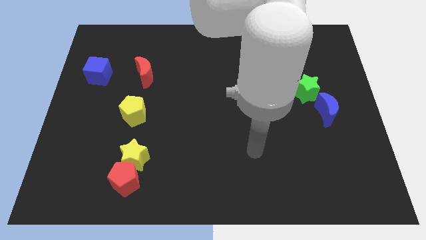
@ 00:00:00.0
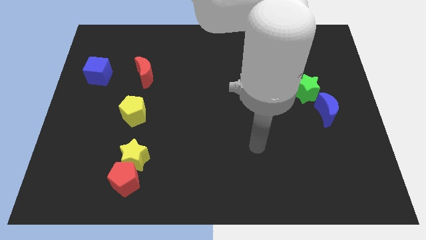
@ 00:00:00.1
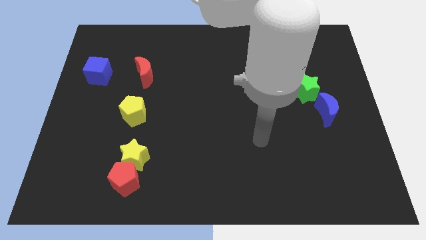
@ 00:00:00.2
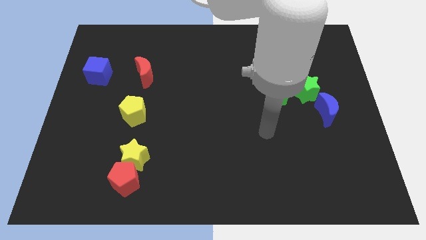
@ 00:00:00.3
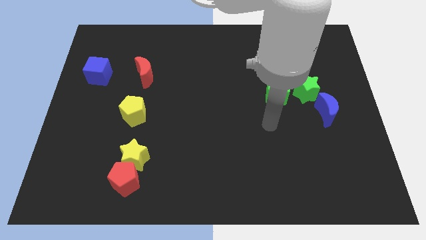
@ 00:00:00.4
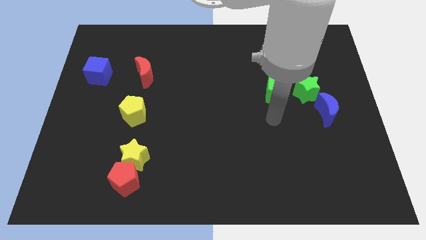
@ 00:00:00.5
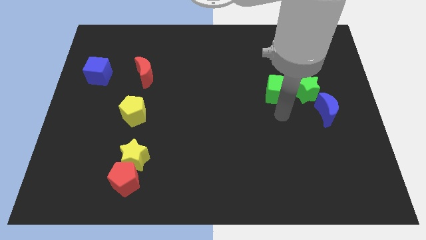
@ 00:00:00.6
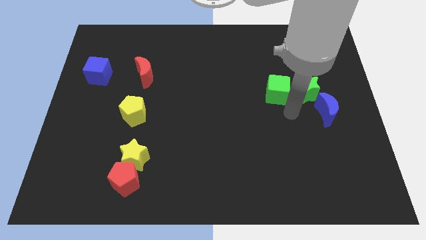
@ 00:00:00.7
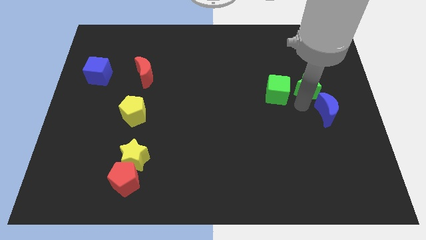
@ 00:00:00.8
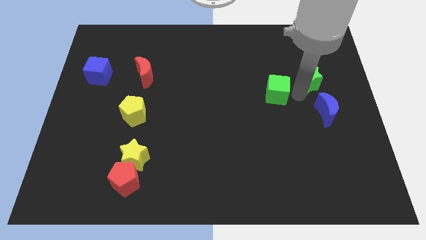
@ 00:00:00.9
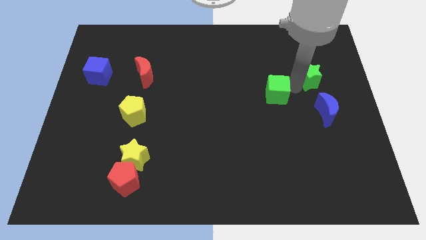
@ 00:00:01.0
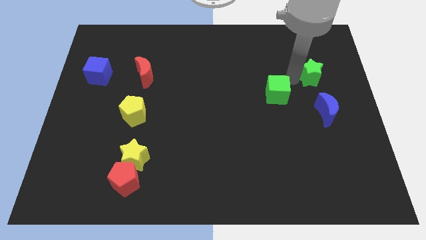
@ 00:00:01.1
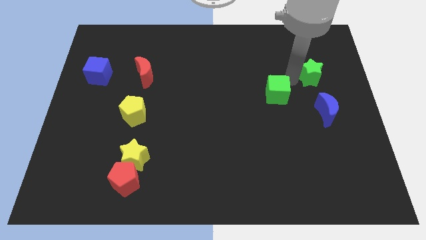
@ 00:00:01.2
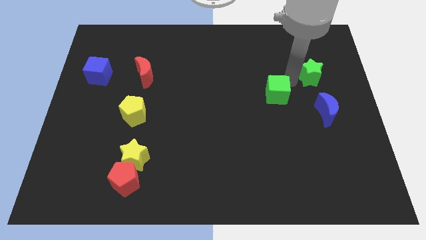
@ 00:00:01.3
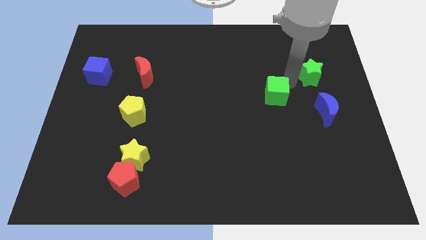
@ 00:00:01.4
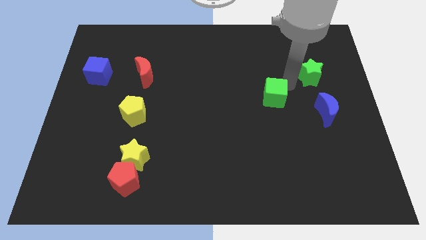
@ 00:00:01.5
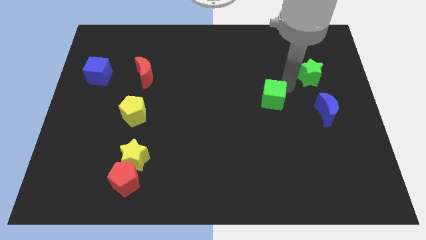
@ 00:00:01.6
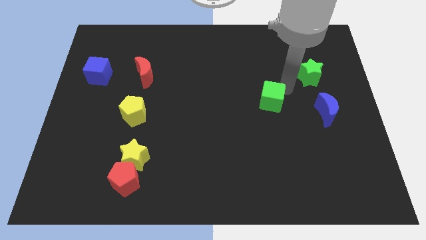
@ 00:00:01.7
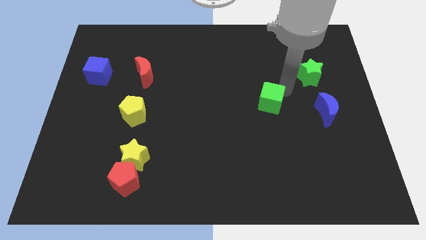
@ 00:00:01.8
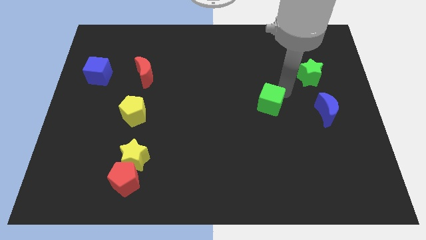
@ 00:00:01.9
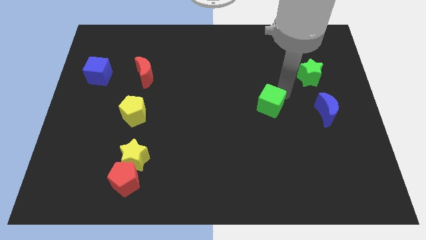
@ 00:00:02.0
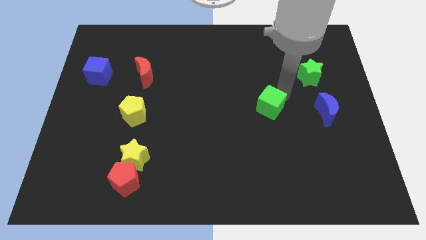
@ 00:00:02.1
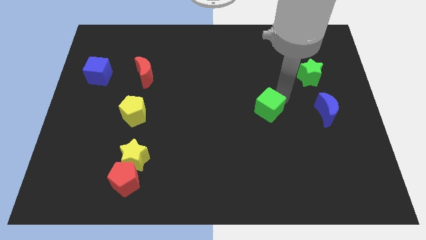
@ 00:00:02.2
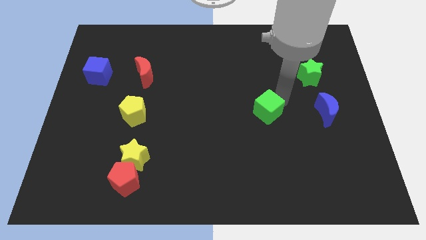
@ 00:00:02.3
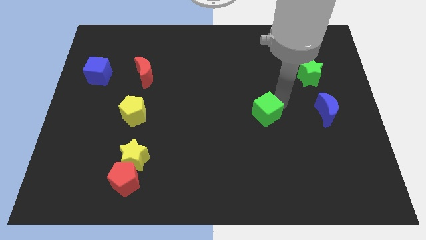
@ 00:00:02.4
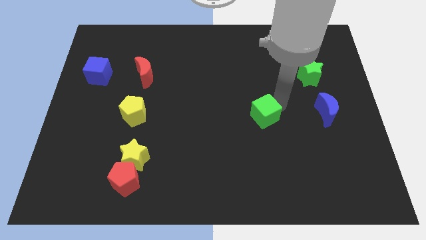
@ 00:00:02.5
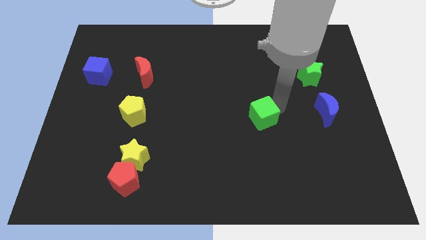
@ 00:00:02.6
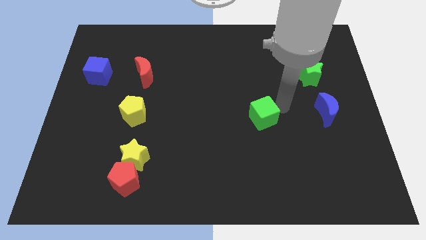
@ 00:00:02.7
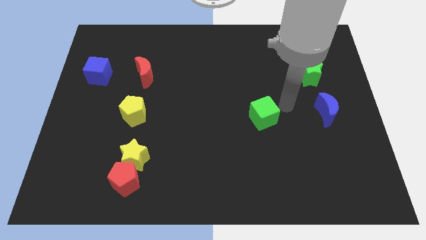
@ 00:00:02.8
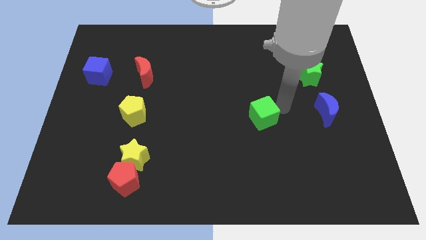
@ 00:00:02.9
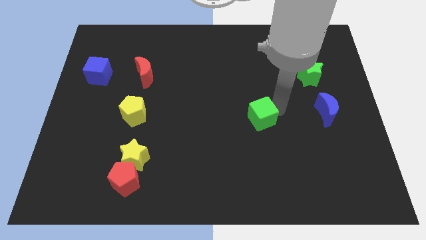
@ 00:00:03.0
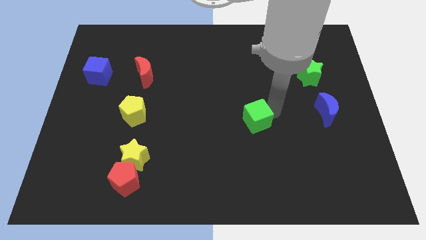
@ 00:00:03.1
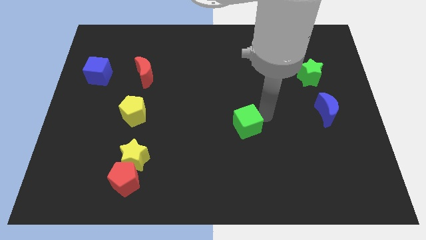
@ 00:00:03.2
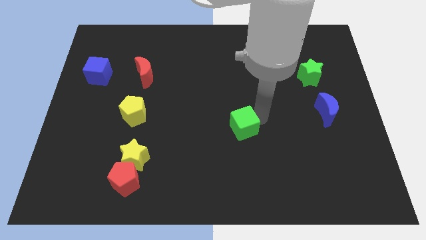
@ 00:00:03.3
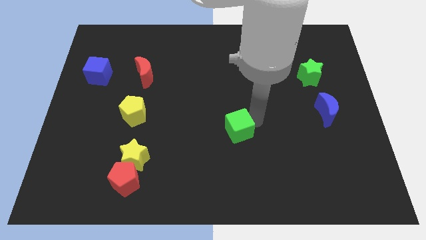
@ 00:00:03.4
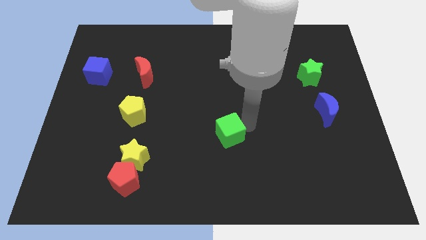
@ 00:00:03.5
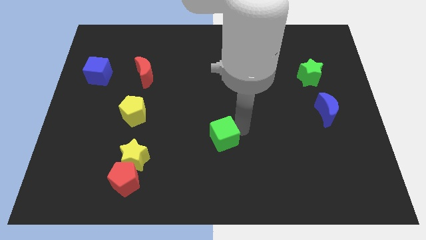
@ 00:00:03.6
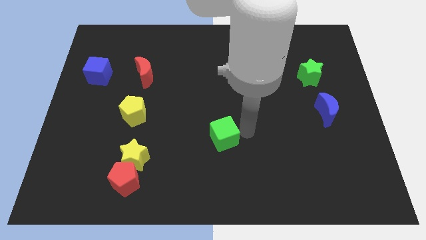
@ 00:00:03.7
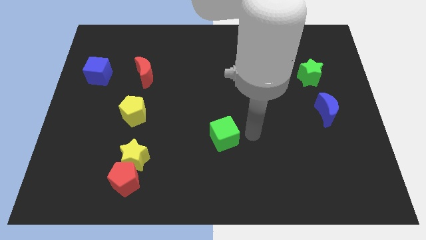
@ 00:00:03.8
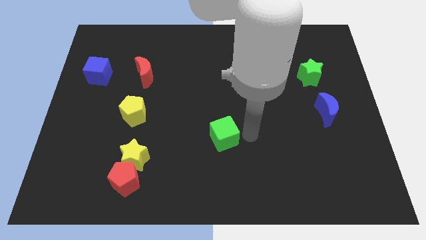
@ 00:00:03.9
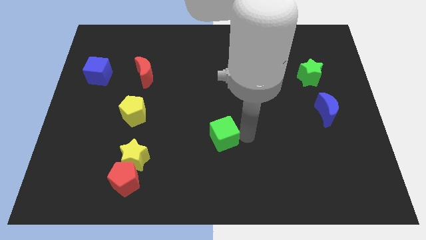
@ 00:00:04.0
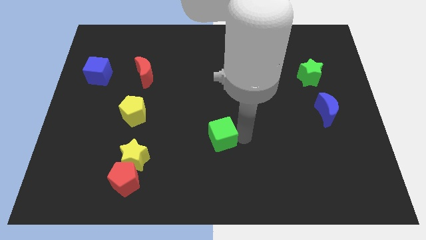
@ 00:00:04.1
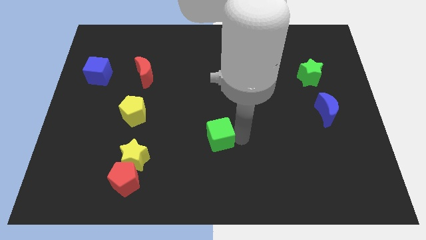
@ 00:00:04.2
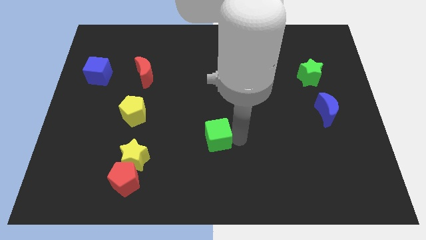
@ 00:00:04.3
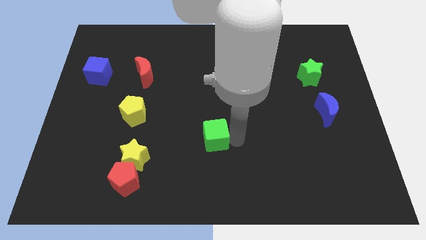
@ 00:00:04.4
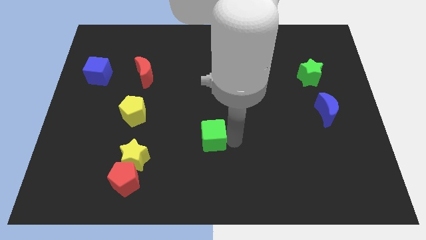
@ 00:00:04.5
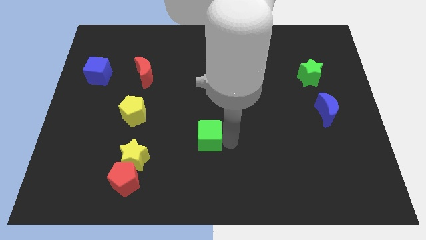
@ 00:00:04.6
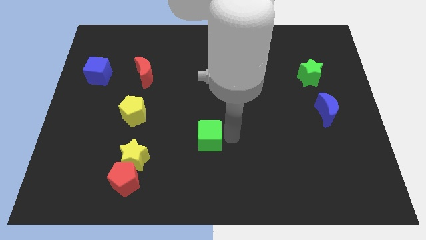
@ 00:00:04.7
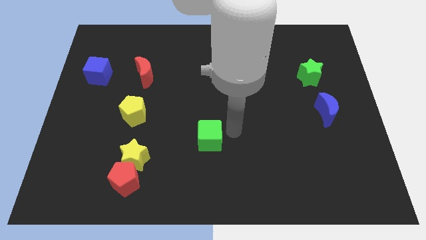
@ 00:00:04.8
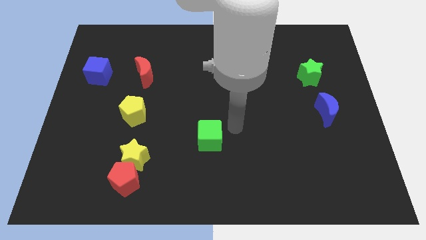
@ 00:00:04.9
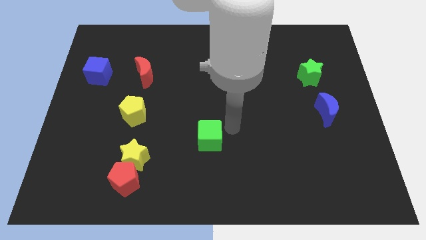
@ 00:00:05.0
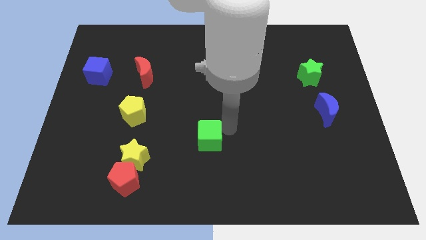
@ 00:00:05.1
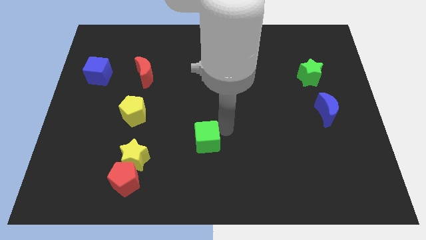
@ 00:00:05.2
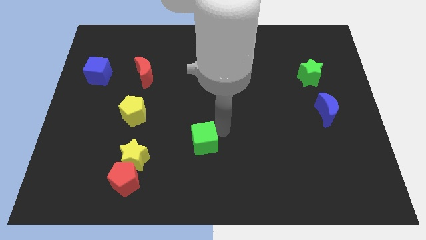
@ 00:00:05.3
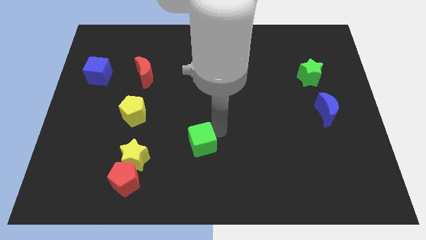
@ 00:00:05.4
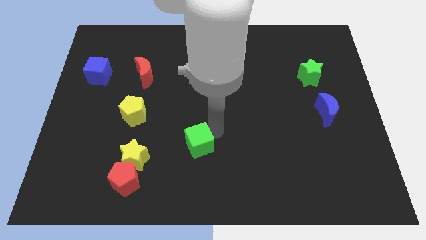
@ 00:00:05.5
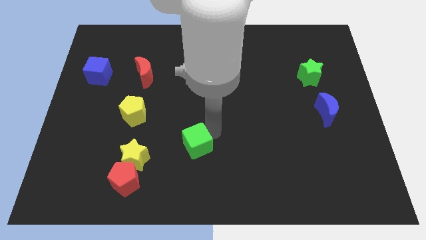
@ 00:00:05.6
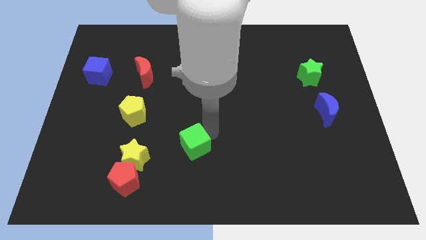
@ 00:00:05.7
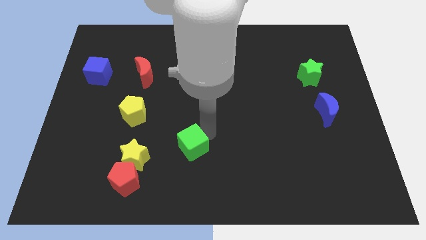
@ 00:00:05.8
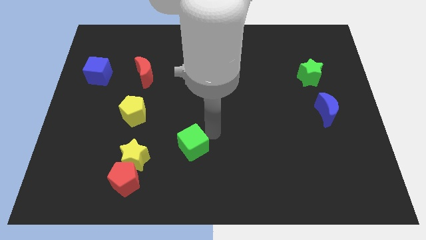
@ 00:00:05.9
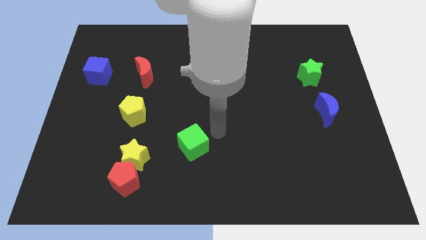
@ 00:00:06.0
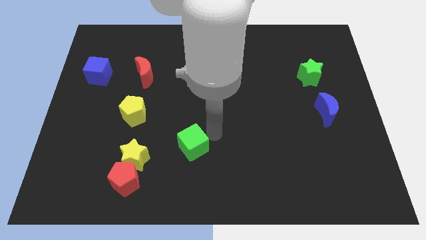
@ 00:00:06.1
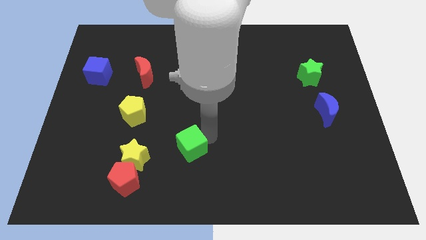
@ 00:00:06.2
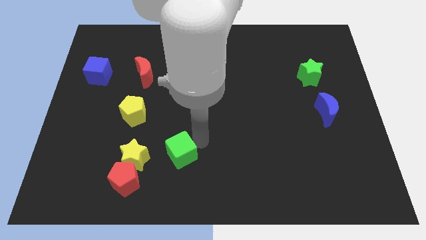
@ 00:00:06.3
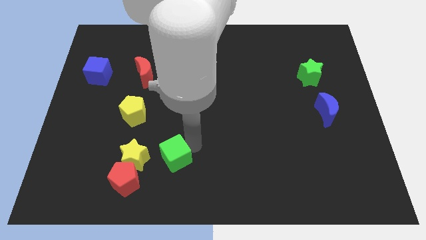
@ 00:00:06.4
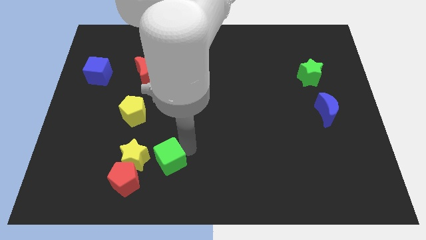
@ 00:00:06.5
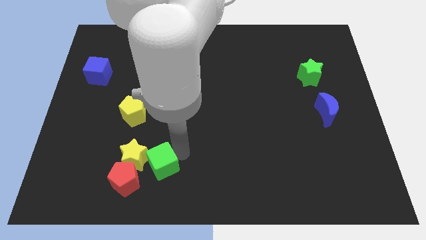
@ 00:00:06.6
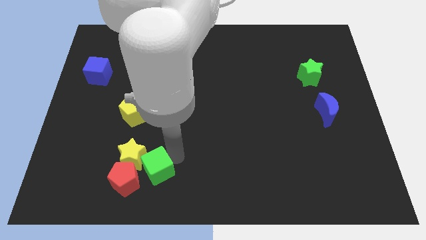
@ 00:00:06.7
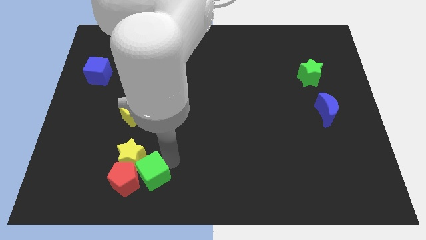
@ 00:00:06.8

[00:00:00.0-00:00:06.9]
slide the green cube close to the red pentagon
